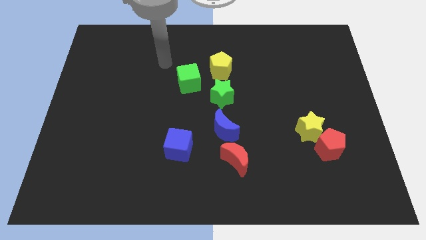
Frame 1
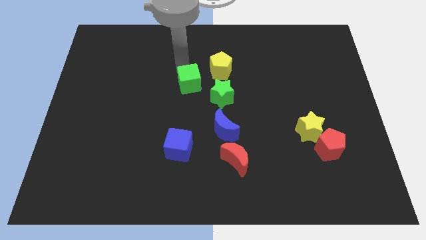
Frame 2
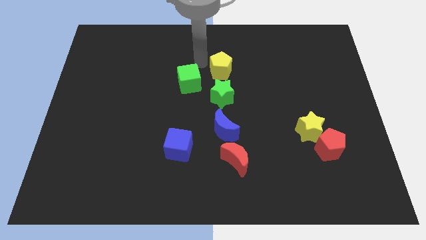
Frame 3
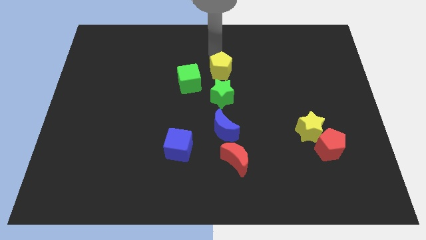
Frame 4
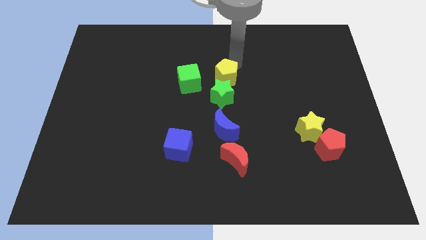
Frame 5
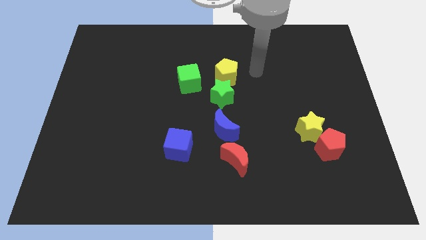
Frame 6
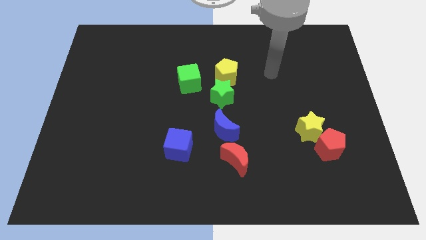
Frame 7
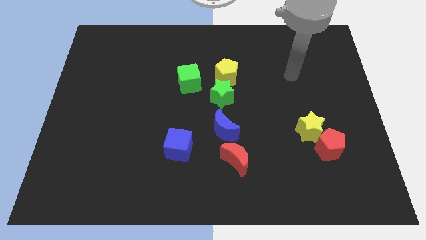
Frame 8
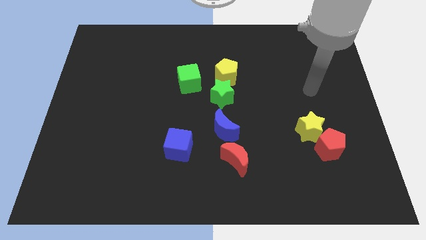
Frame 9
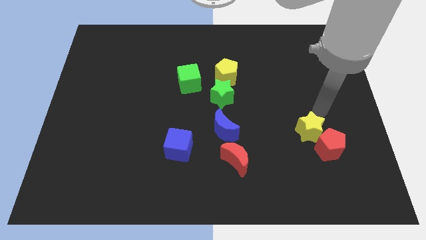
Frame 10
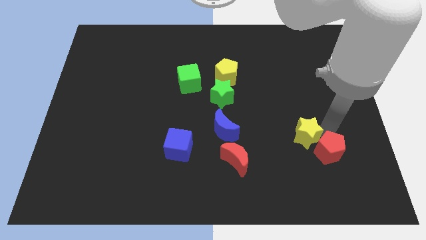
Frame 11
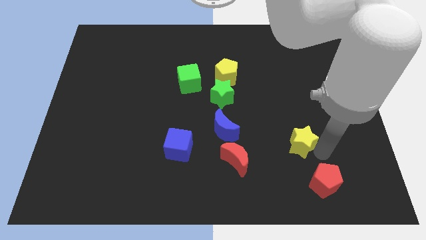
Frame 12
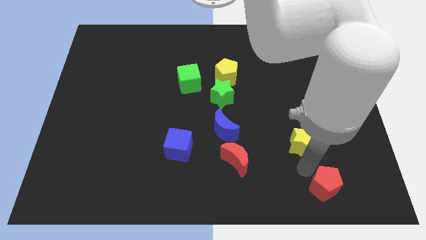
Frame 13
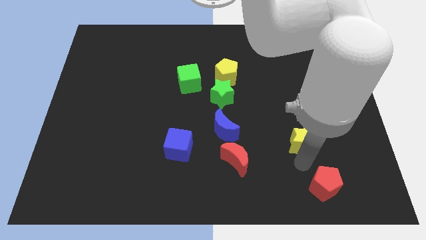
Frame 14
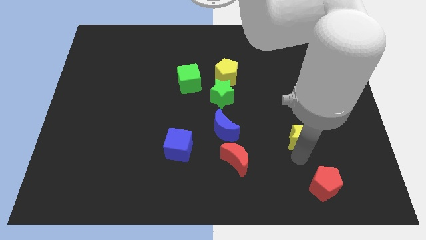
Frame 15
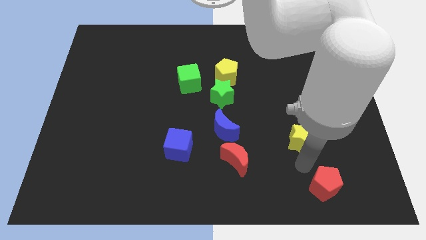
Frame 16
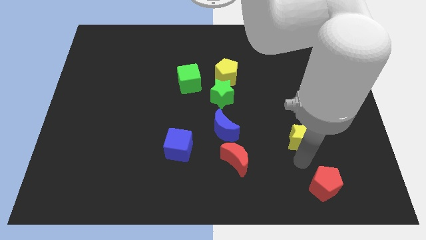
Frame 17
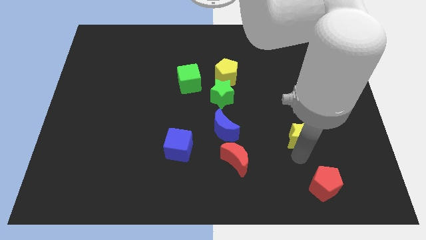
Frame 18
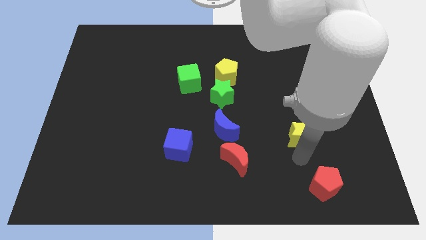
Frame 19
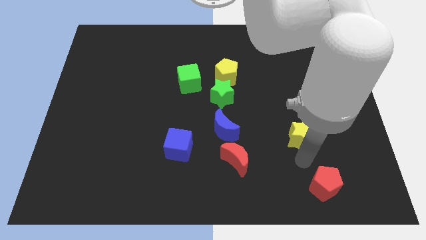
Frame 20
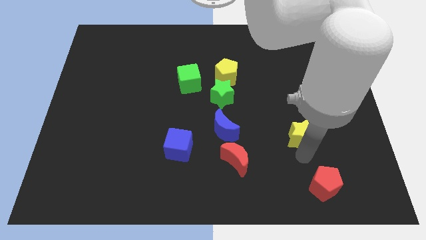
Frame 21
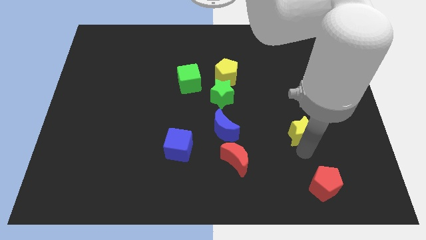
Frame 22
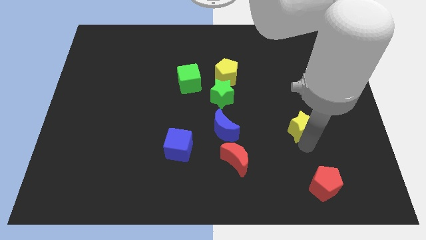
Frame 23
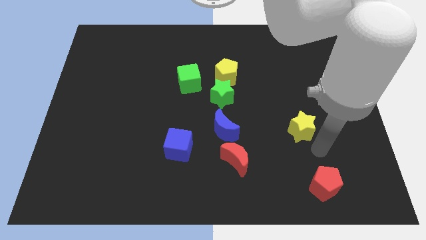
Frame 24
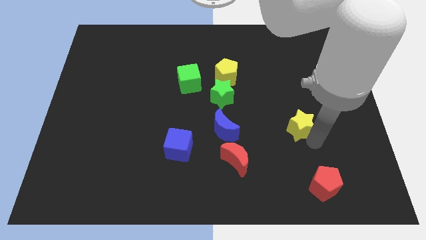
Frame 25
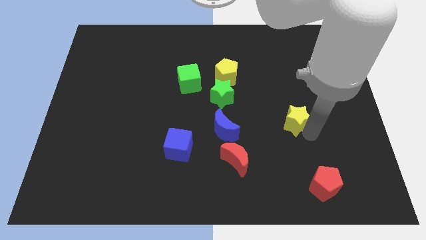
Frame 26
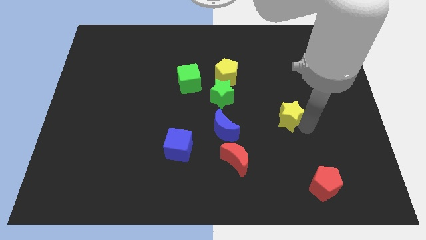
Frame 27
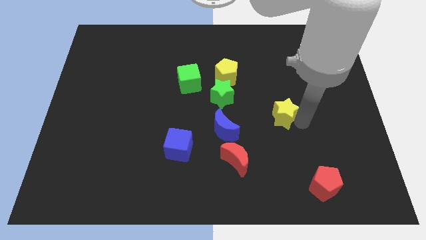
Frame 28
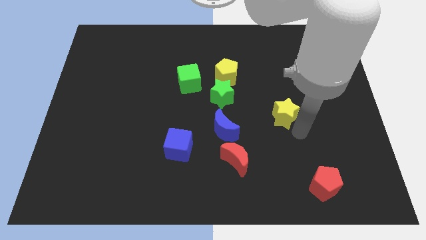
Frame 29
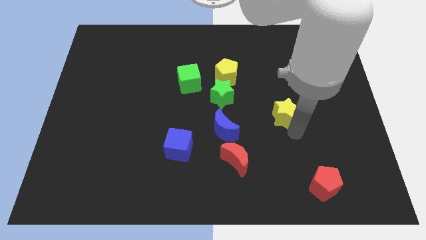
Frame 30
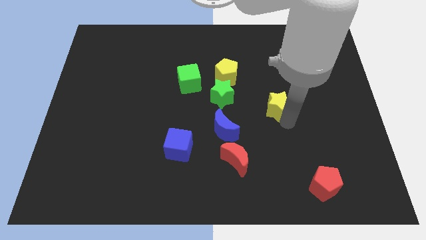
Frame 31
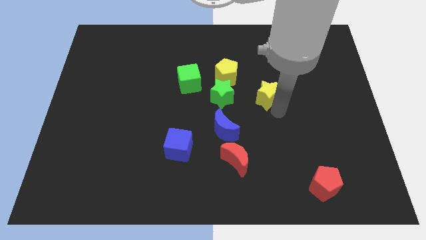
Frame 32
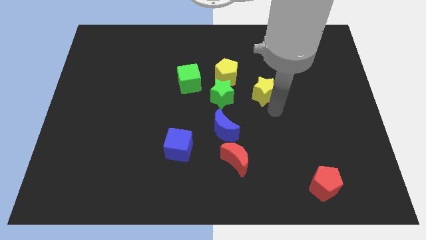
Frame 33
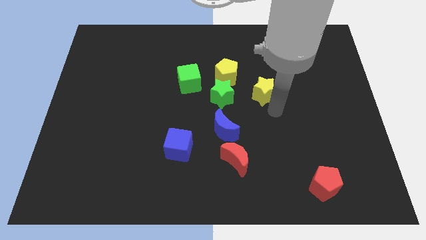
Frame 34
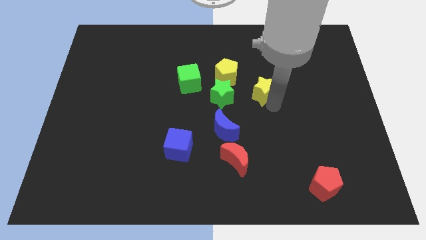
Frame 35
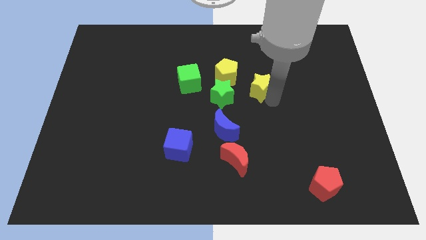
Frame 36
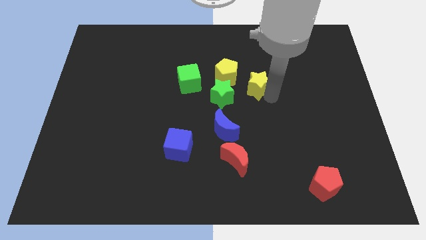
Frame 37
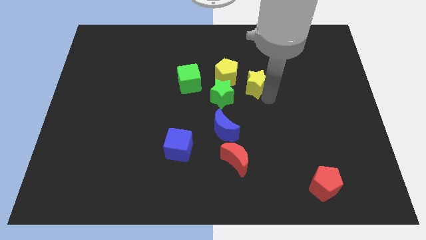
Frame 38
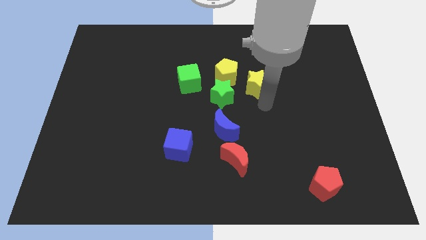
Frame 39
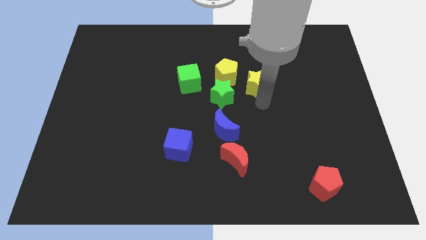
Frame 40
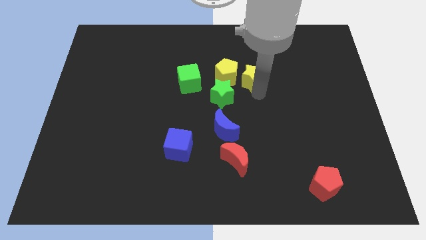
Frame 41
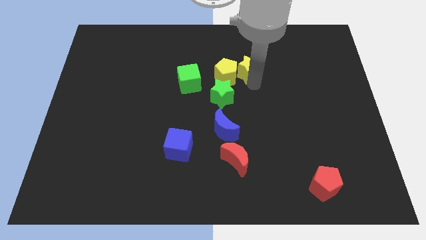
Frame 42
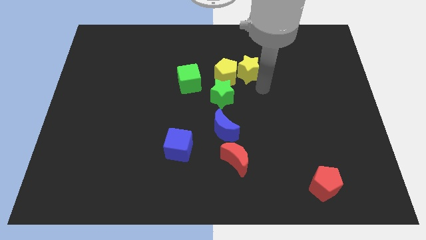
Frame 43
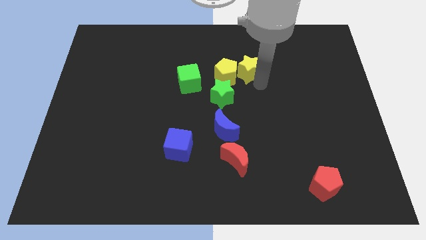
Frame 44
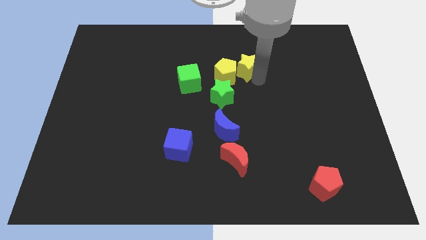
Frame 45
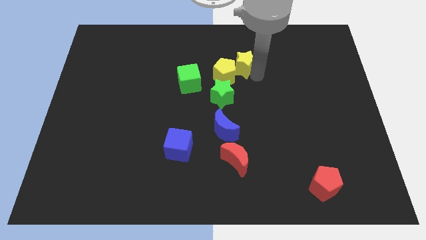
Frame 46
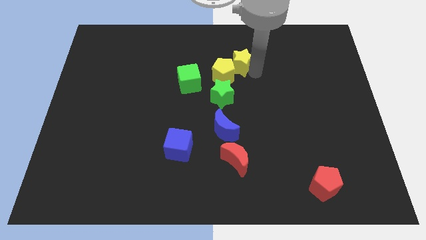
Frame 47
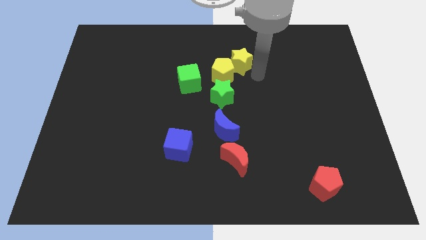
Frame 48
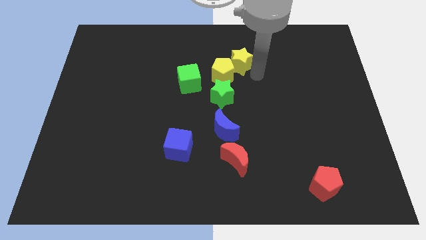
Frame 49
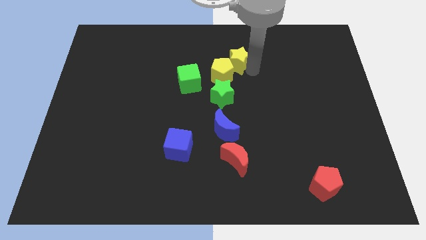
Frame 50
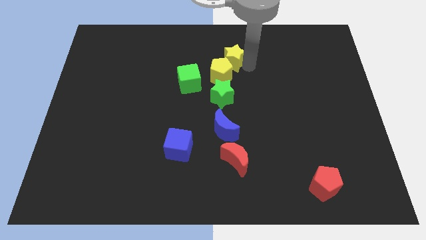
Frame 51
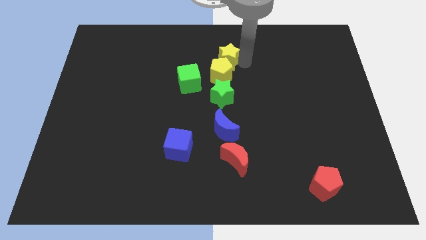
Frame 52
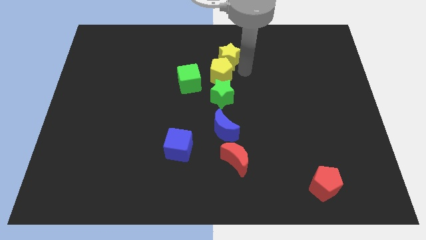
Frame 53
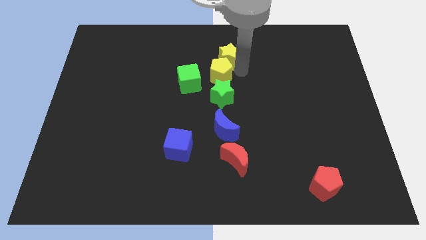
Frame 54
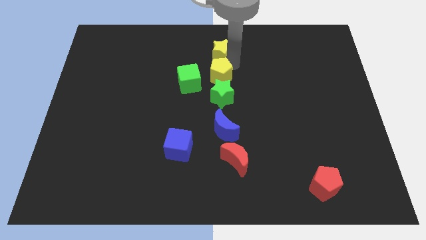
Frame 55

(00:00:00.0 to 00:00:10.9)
push the yellow star to the top side
